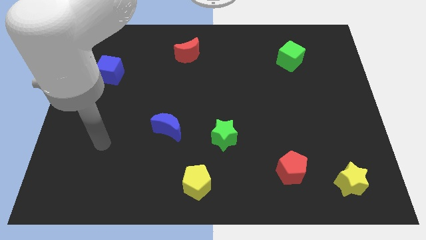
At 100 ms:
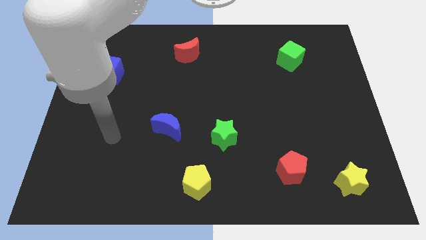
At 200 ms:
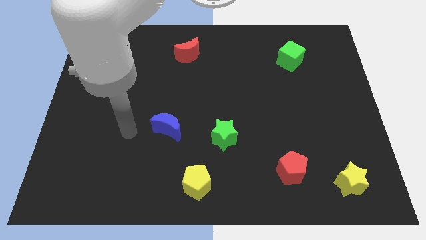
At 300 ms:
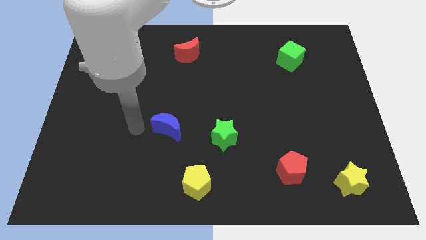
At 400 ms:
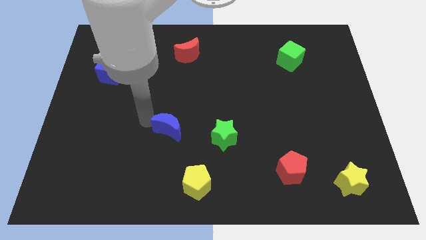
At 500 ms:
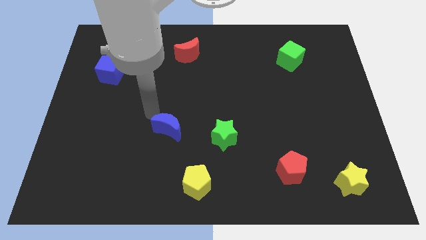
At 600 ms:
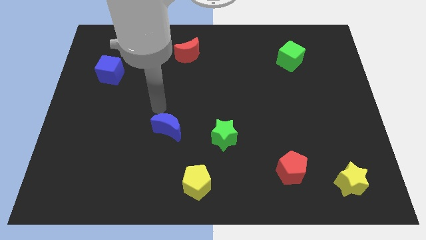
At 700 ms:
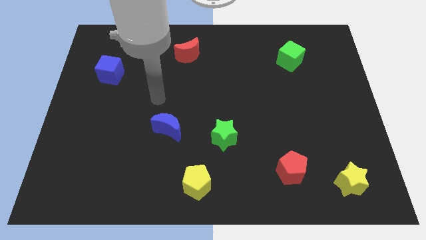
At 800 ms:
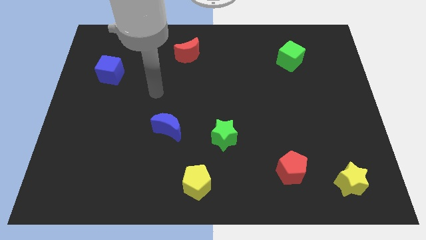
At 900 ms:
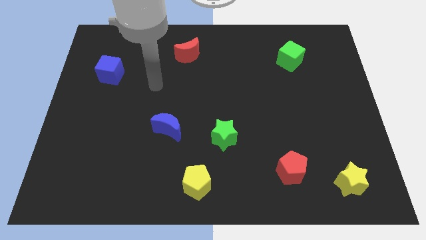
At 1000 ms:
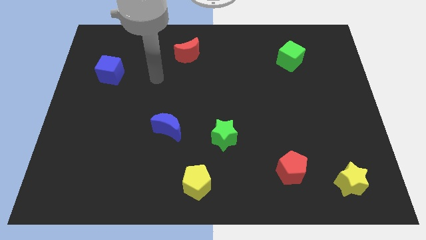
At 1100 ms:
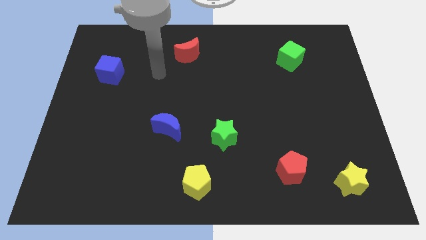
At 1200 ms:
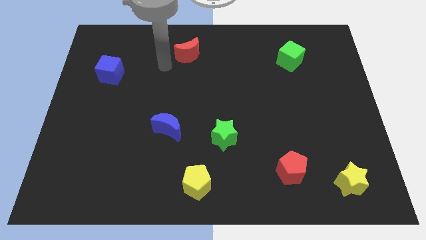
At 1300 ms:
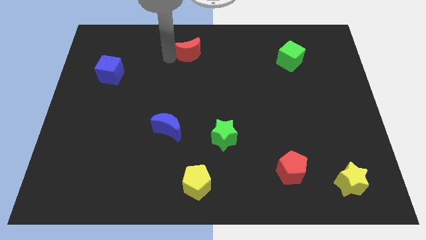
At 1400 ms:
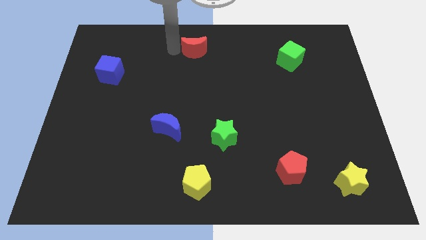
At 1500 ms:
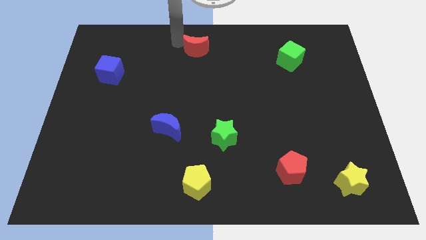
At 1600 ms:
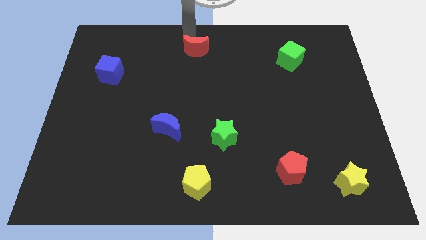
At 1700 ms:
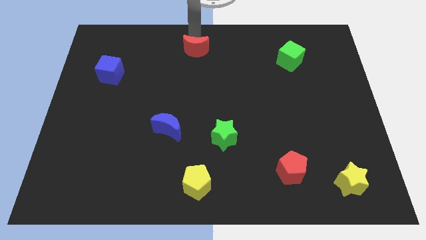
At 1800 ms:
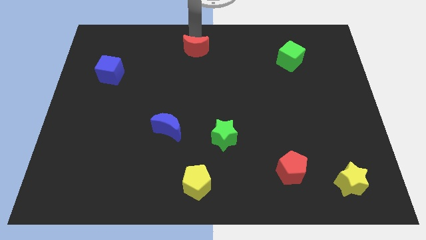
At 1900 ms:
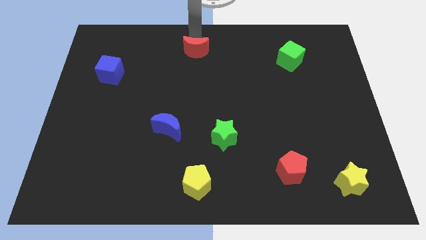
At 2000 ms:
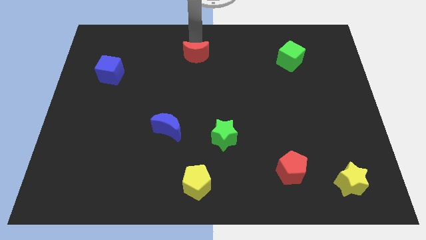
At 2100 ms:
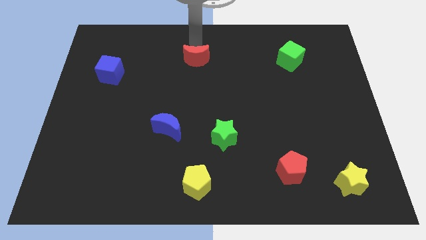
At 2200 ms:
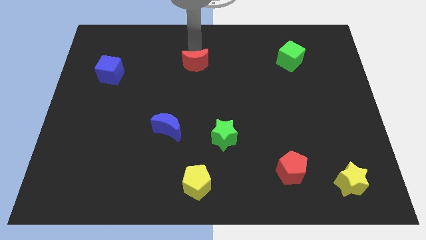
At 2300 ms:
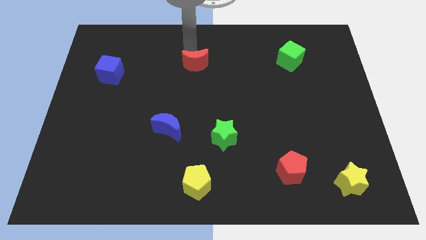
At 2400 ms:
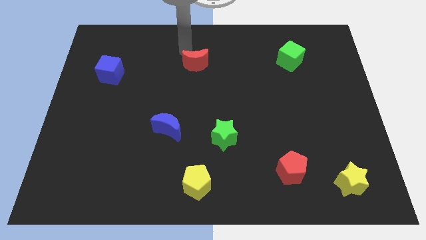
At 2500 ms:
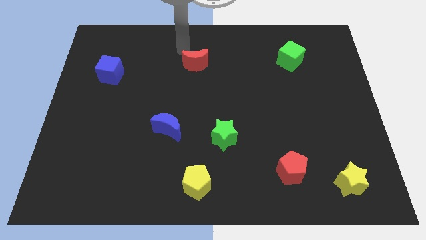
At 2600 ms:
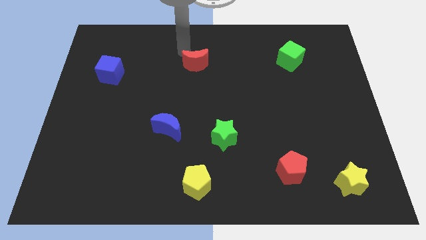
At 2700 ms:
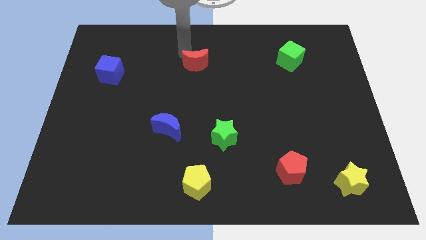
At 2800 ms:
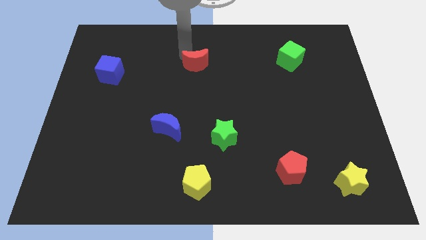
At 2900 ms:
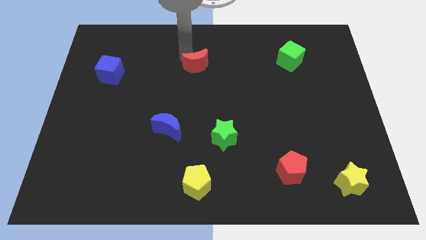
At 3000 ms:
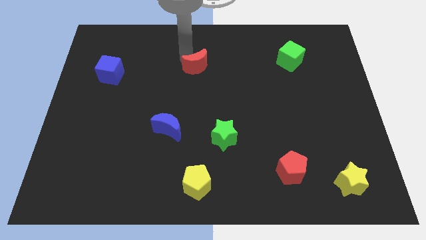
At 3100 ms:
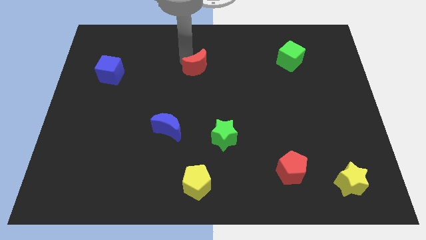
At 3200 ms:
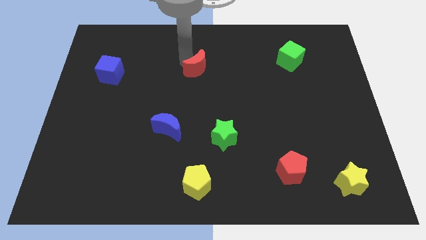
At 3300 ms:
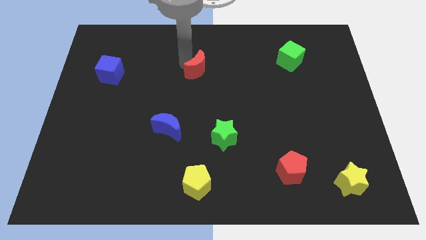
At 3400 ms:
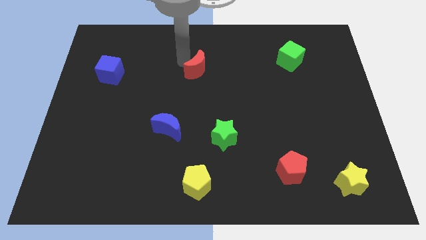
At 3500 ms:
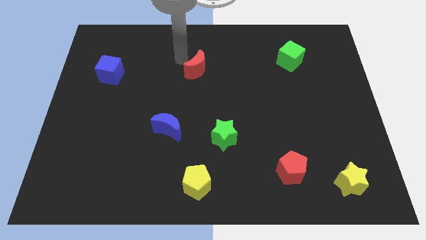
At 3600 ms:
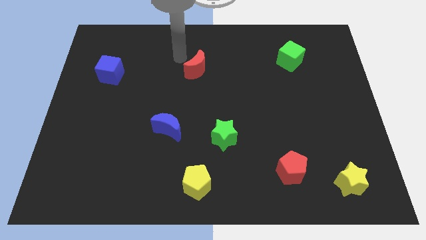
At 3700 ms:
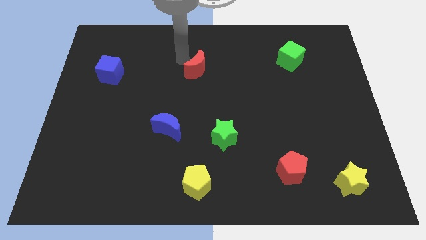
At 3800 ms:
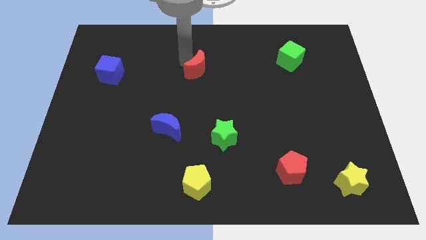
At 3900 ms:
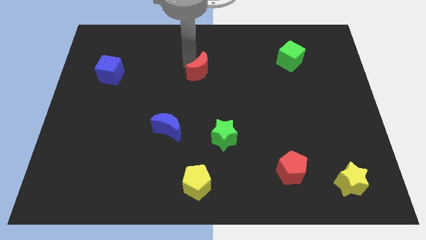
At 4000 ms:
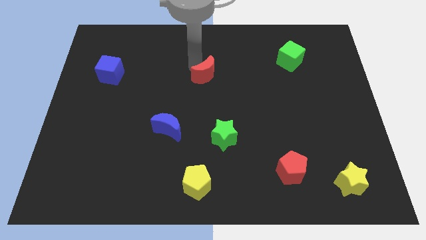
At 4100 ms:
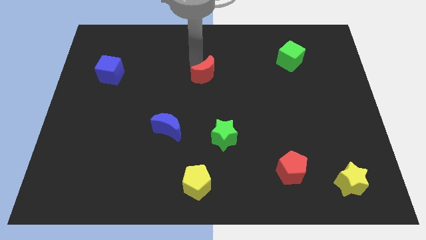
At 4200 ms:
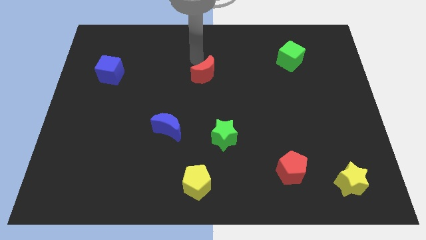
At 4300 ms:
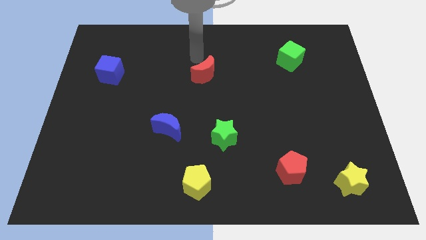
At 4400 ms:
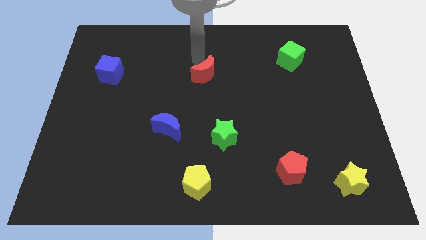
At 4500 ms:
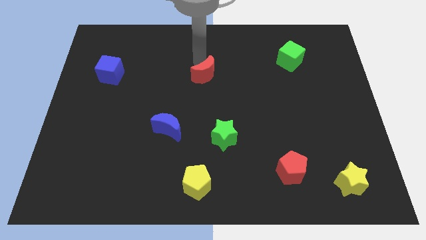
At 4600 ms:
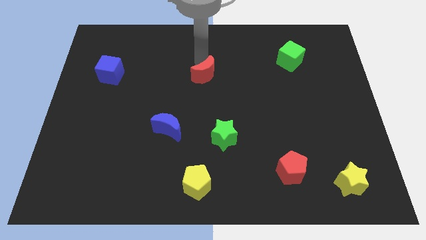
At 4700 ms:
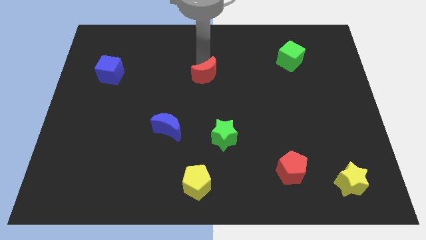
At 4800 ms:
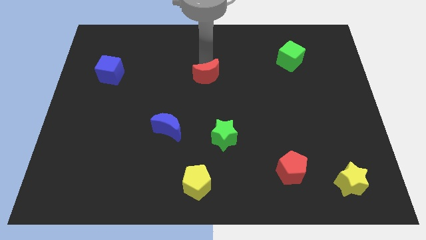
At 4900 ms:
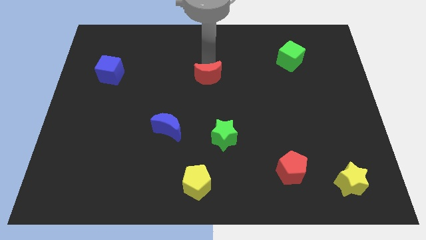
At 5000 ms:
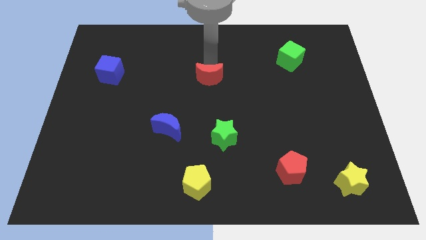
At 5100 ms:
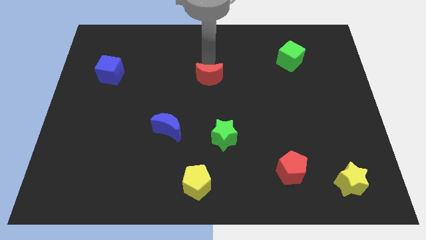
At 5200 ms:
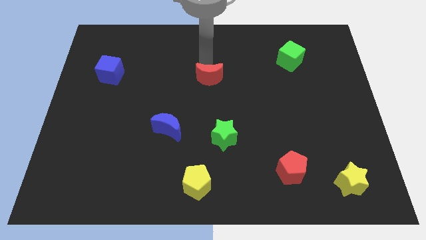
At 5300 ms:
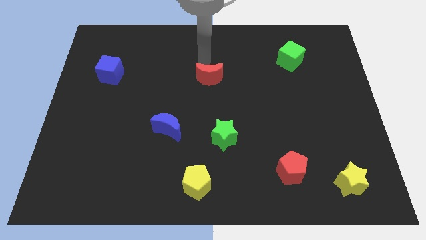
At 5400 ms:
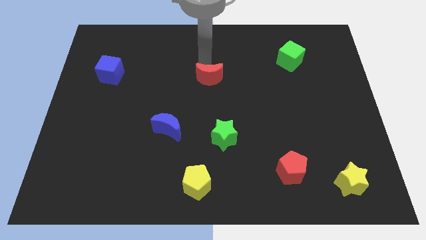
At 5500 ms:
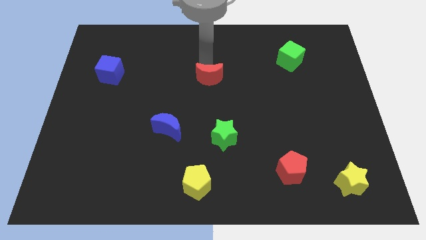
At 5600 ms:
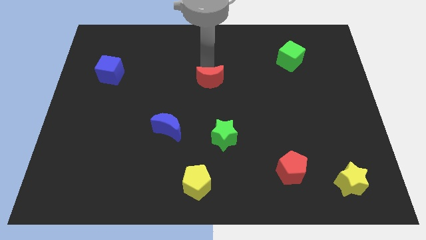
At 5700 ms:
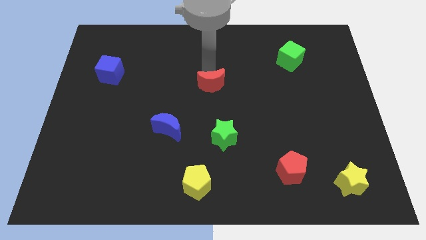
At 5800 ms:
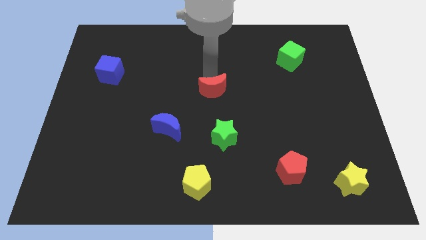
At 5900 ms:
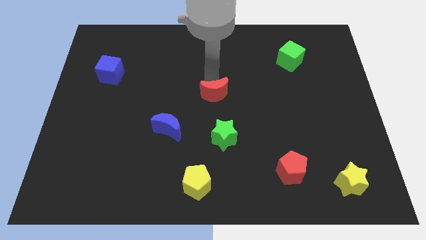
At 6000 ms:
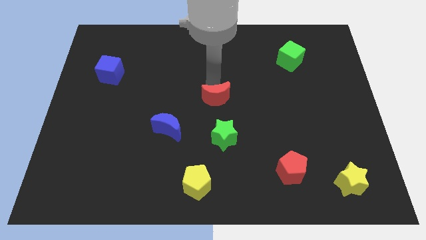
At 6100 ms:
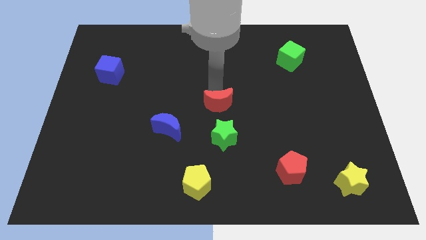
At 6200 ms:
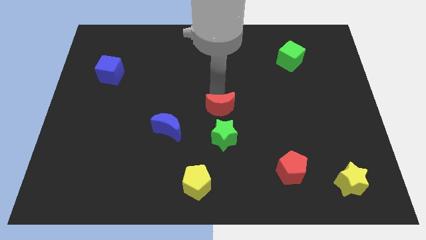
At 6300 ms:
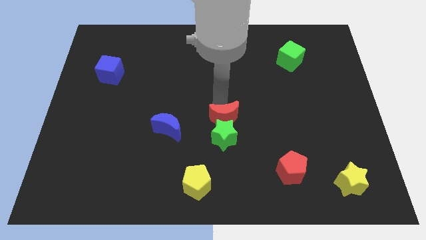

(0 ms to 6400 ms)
put the red moon next to the green star
